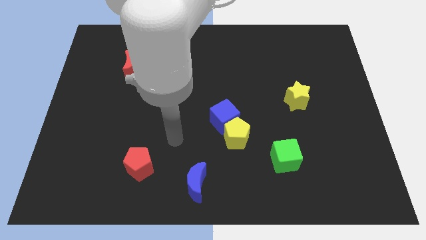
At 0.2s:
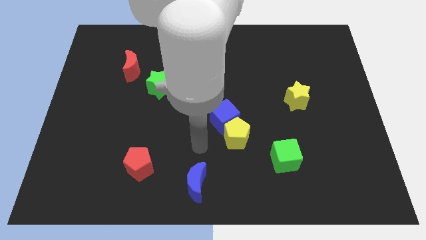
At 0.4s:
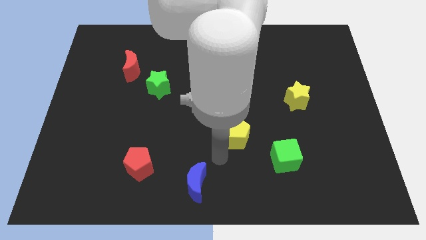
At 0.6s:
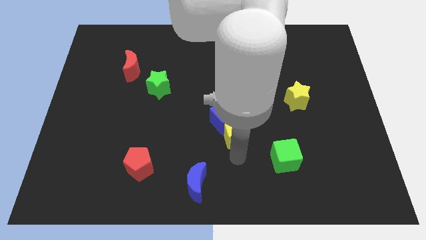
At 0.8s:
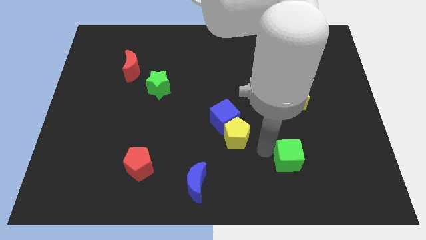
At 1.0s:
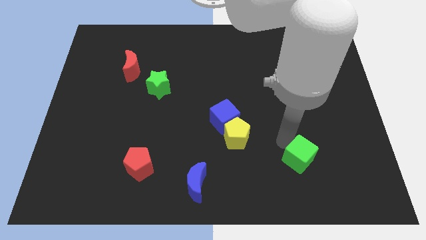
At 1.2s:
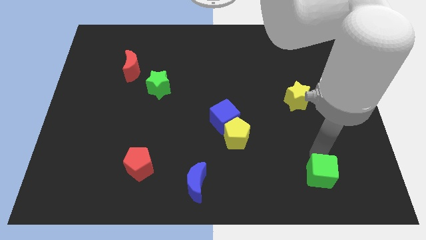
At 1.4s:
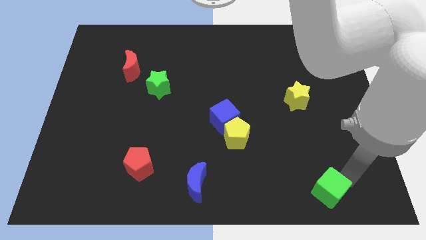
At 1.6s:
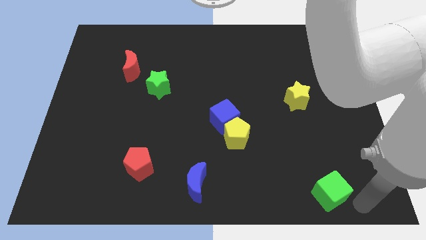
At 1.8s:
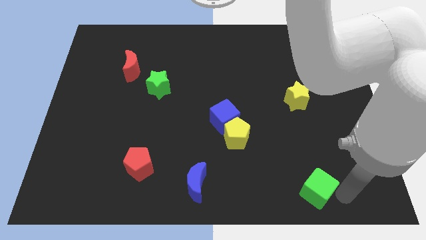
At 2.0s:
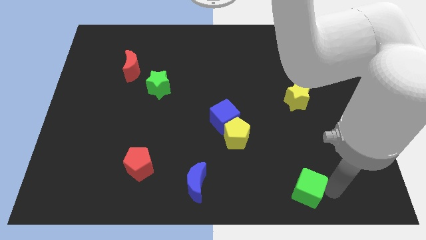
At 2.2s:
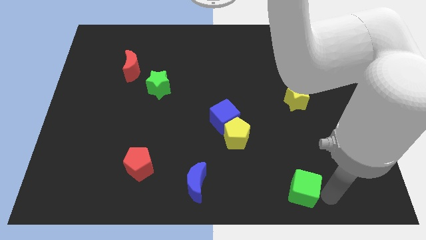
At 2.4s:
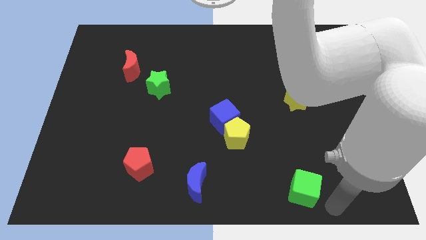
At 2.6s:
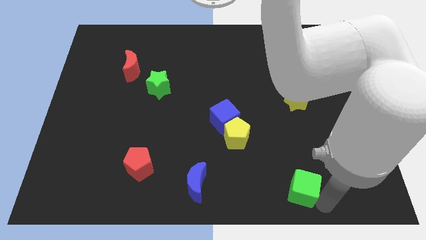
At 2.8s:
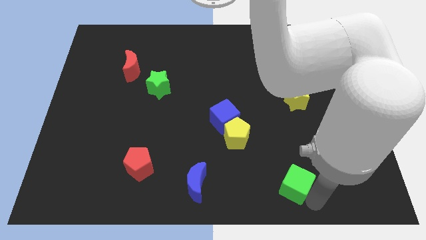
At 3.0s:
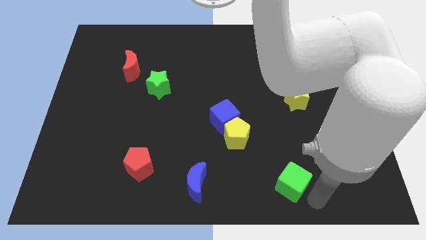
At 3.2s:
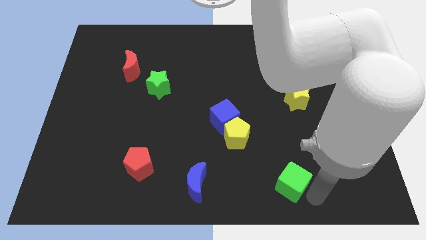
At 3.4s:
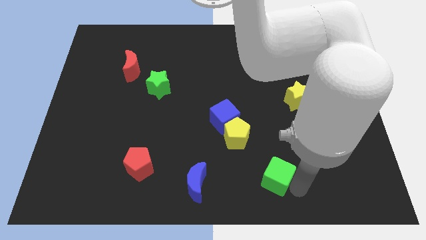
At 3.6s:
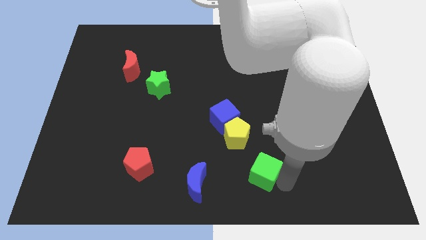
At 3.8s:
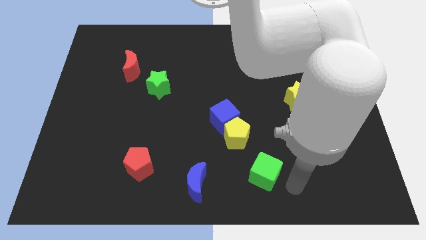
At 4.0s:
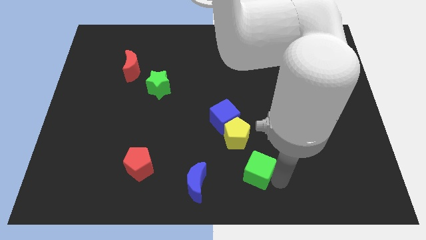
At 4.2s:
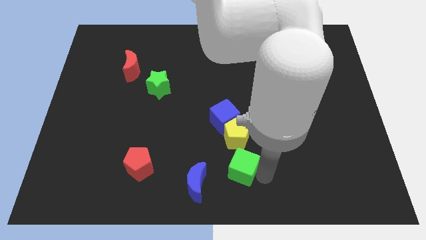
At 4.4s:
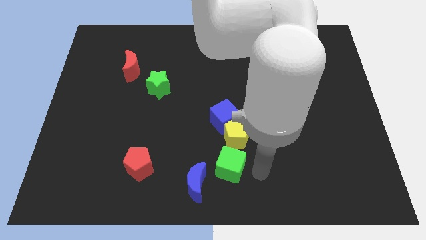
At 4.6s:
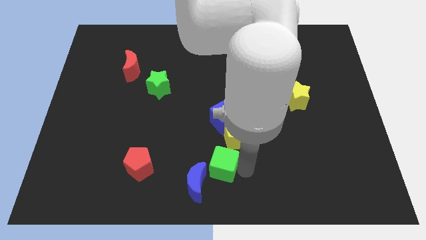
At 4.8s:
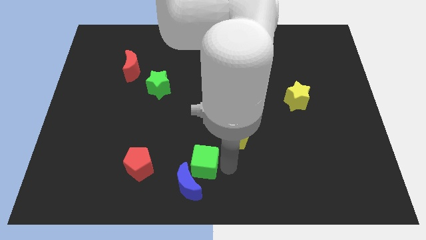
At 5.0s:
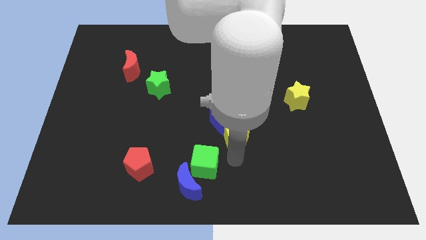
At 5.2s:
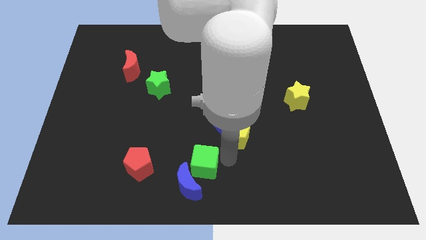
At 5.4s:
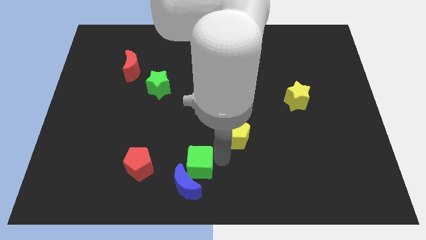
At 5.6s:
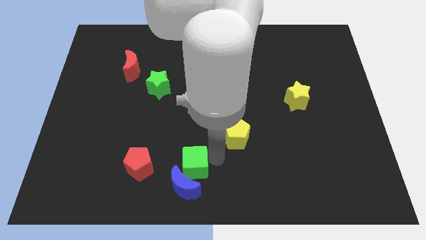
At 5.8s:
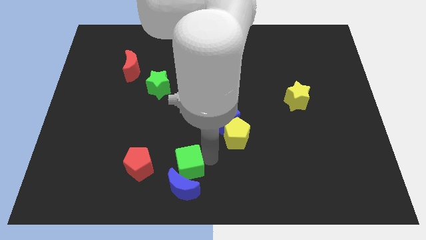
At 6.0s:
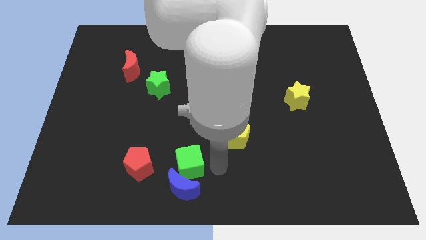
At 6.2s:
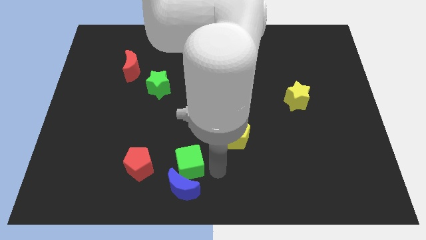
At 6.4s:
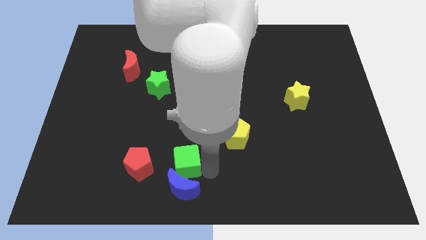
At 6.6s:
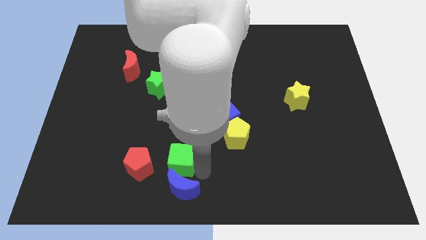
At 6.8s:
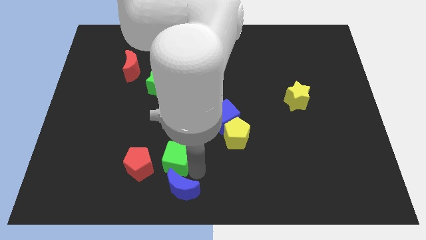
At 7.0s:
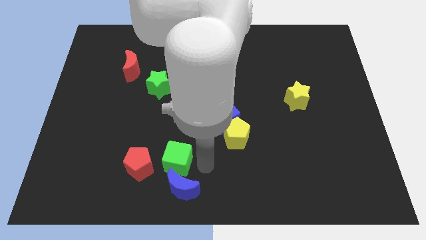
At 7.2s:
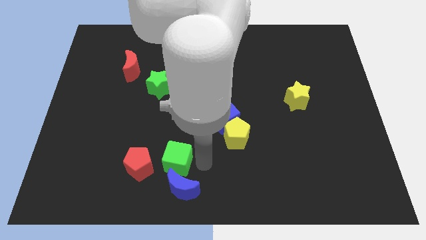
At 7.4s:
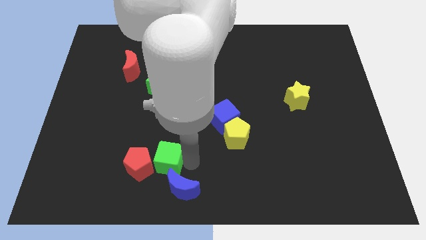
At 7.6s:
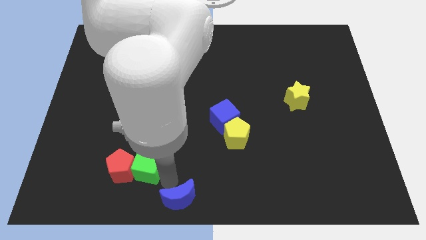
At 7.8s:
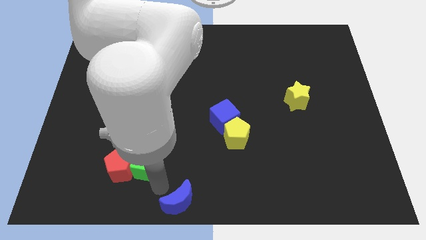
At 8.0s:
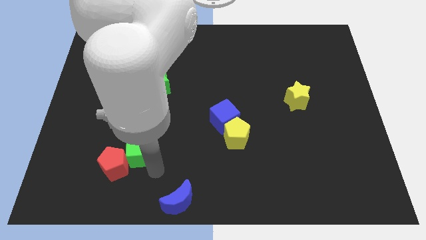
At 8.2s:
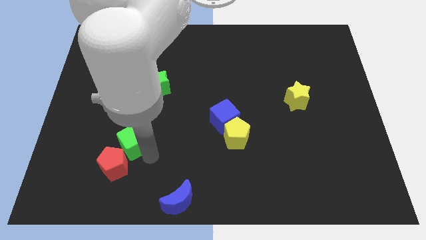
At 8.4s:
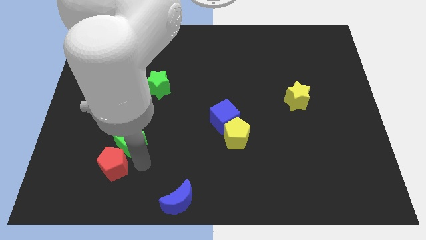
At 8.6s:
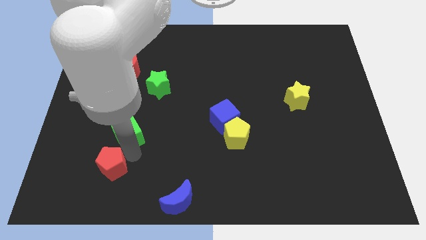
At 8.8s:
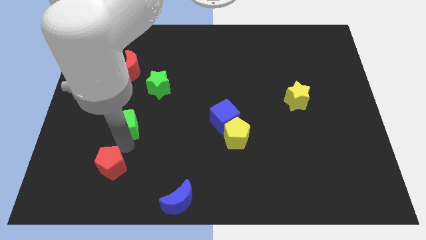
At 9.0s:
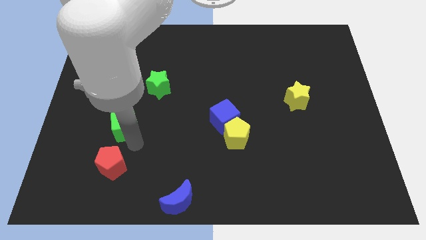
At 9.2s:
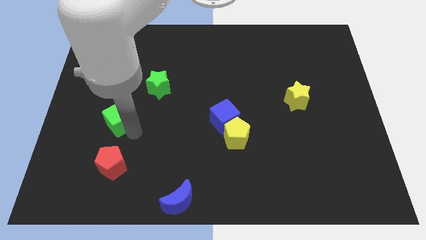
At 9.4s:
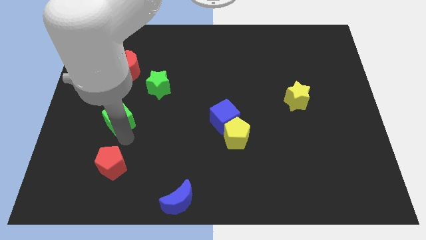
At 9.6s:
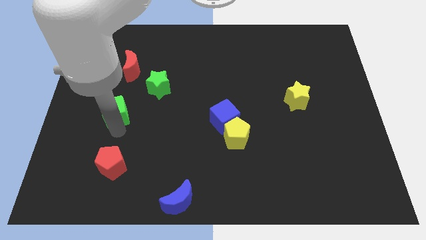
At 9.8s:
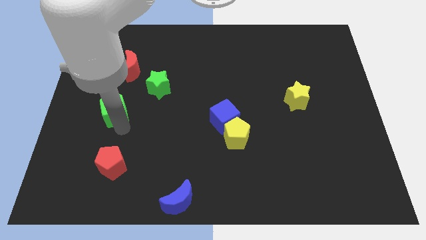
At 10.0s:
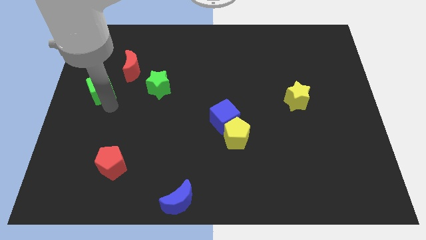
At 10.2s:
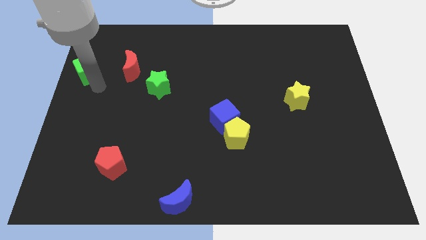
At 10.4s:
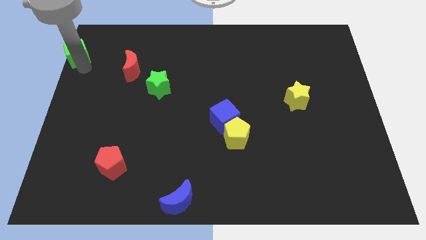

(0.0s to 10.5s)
slide the green cube to the top left of the board

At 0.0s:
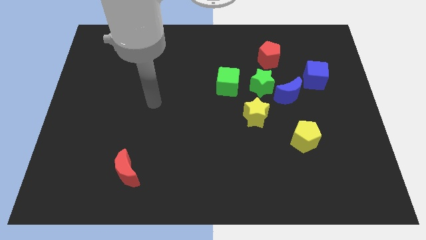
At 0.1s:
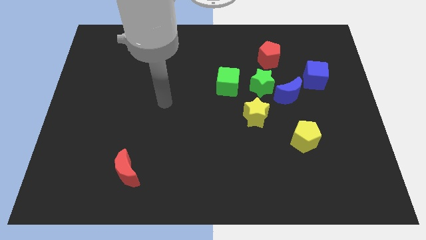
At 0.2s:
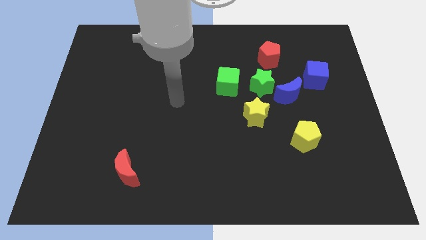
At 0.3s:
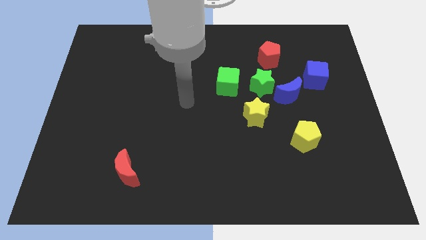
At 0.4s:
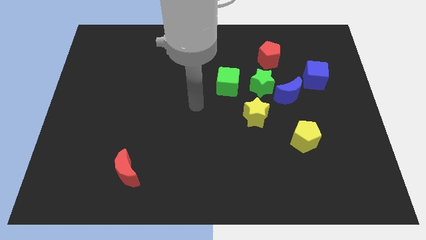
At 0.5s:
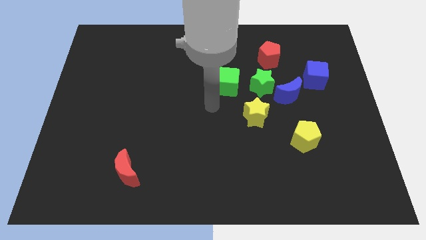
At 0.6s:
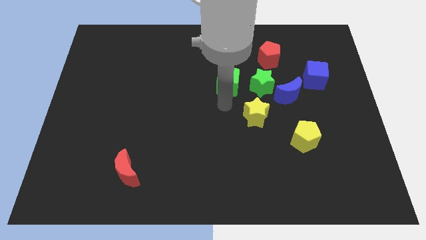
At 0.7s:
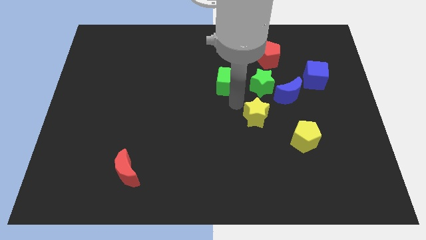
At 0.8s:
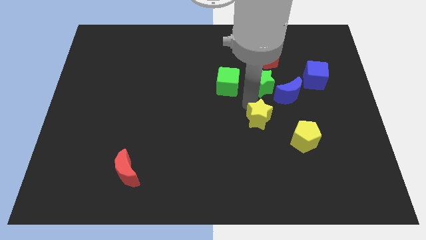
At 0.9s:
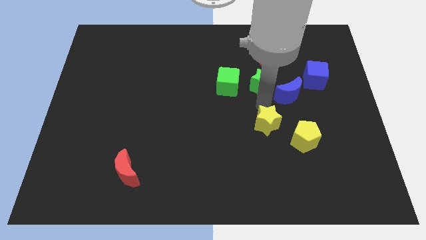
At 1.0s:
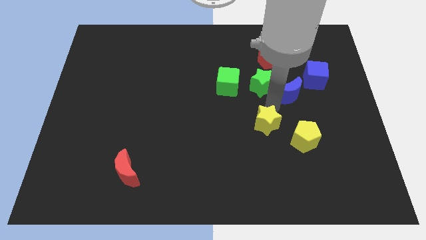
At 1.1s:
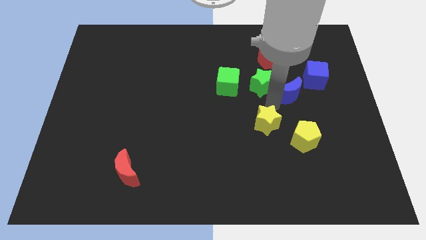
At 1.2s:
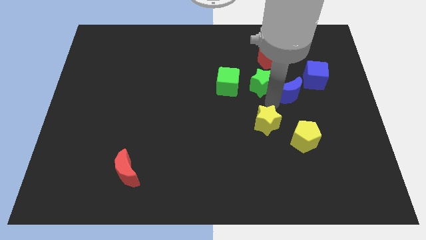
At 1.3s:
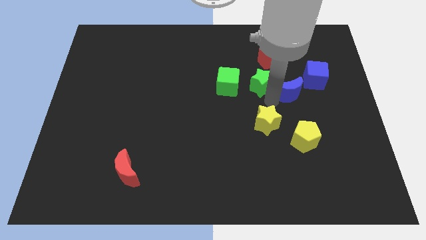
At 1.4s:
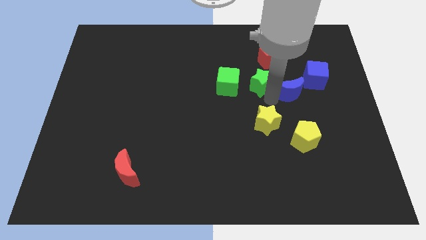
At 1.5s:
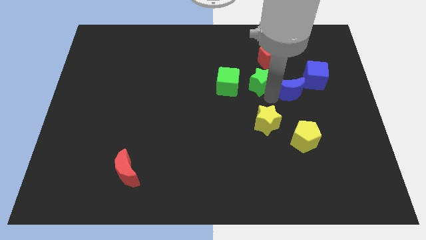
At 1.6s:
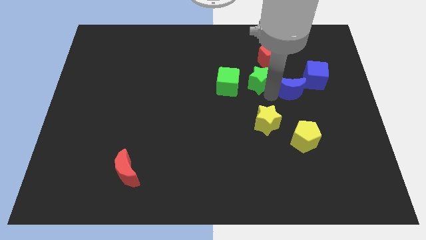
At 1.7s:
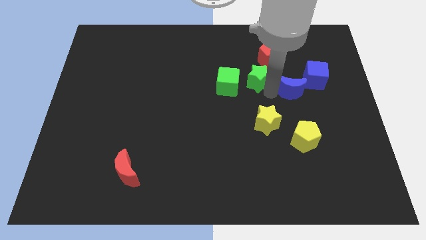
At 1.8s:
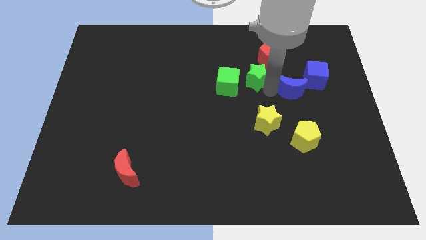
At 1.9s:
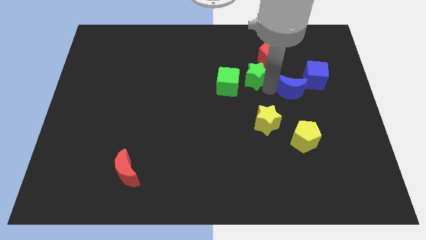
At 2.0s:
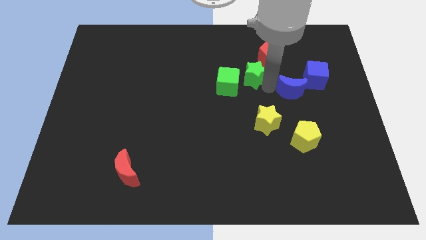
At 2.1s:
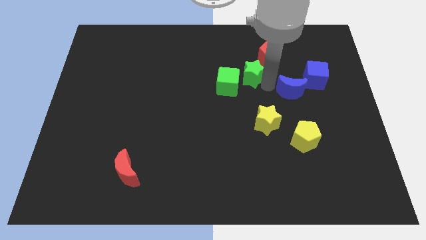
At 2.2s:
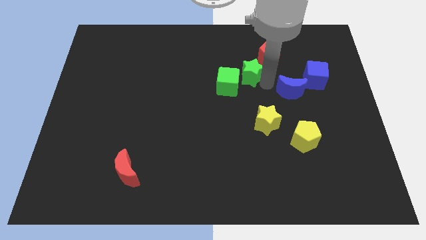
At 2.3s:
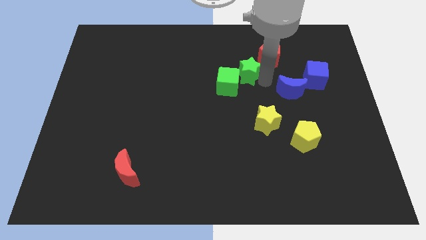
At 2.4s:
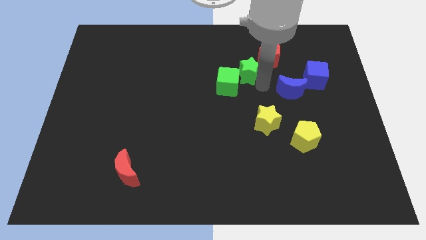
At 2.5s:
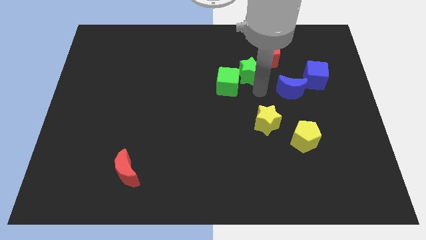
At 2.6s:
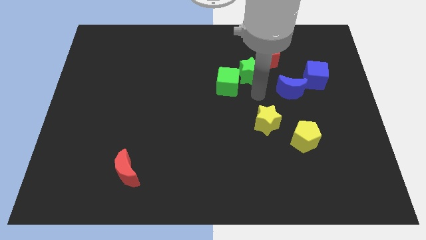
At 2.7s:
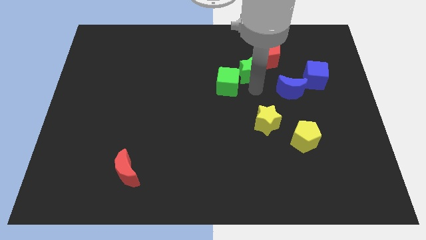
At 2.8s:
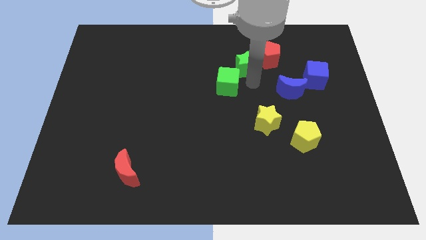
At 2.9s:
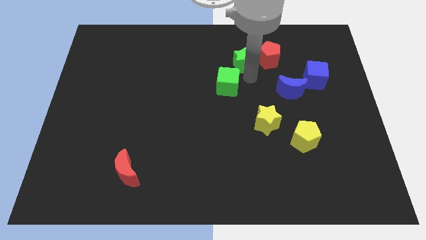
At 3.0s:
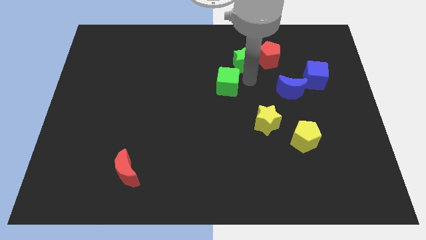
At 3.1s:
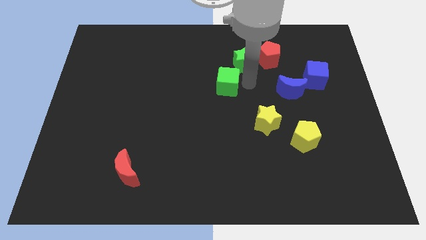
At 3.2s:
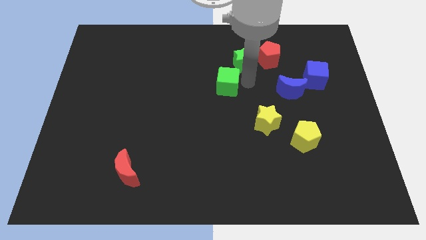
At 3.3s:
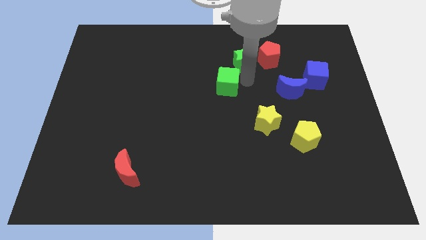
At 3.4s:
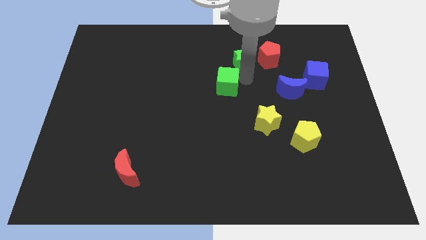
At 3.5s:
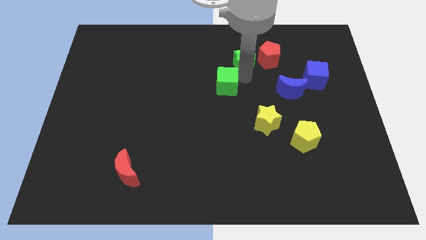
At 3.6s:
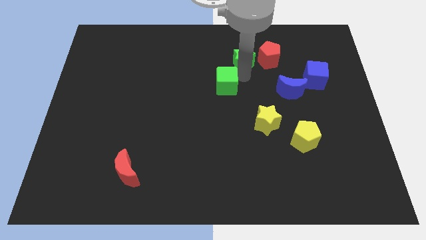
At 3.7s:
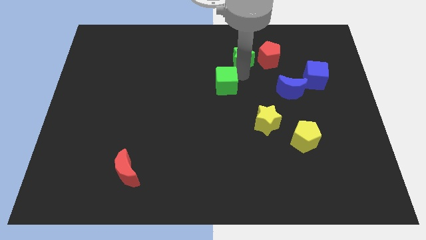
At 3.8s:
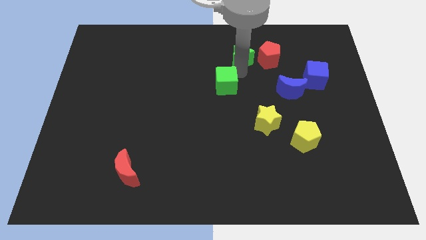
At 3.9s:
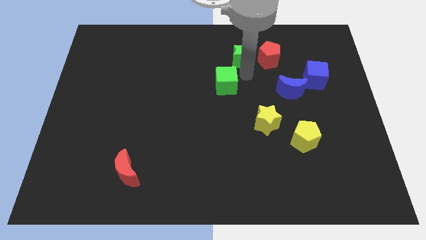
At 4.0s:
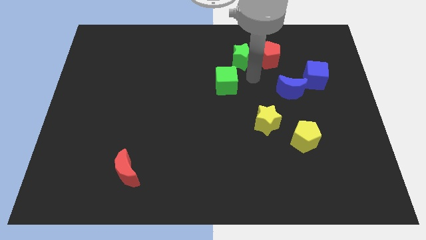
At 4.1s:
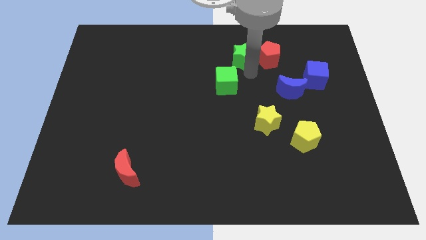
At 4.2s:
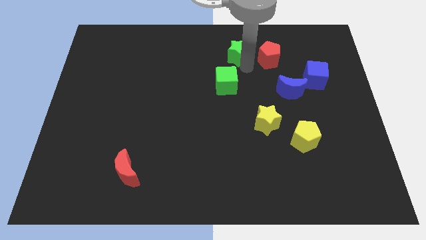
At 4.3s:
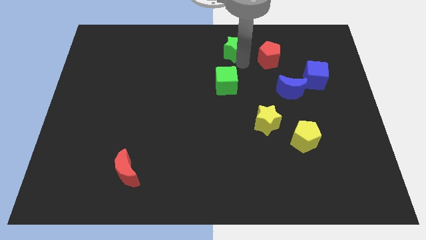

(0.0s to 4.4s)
move the green star to the top
